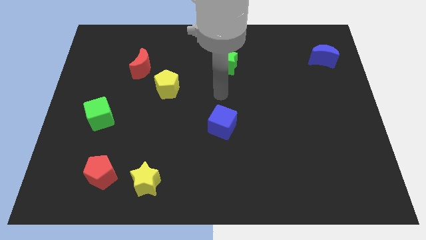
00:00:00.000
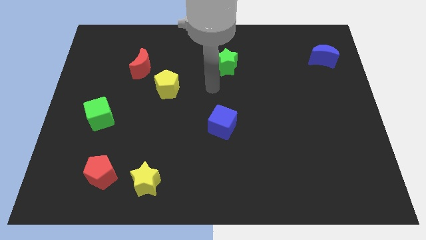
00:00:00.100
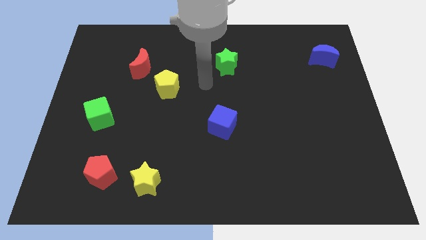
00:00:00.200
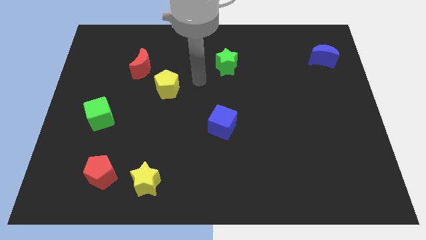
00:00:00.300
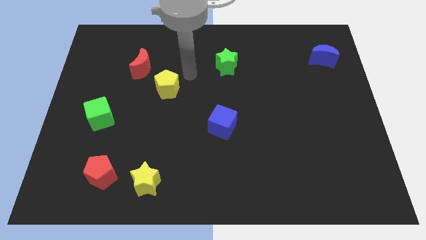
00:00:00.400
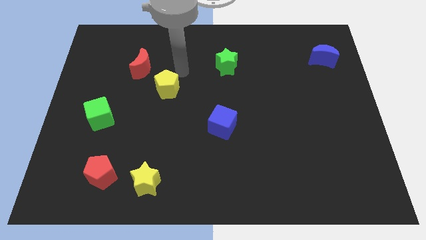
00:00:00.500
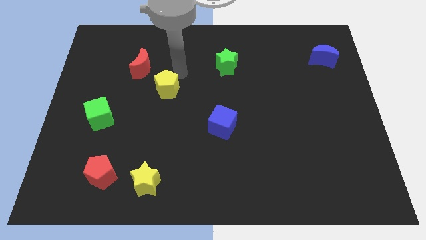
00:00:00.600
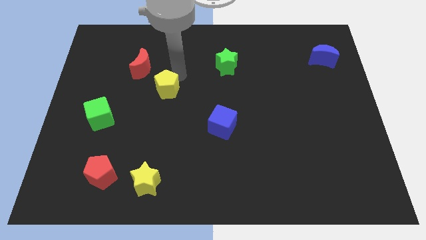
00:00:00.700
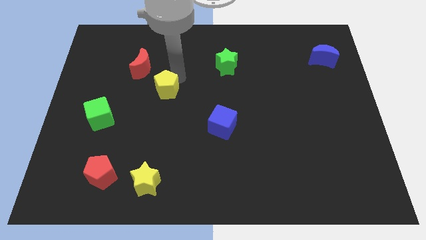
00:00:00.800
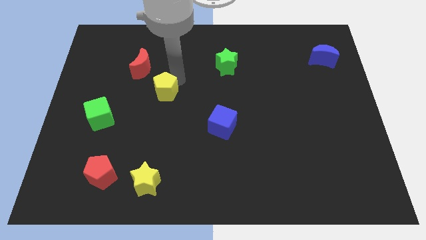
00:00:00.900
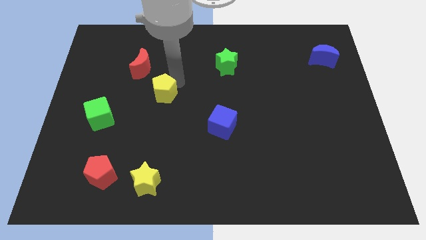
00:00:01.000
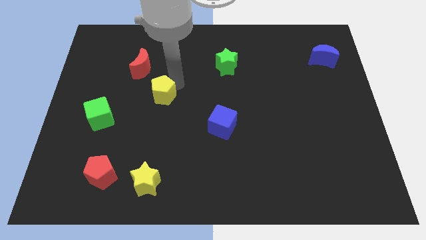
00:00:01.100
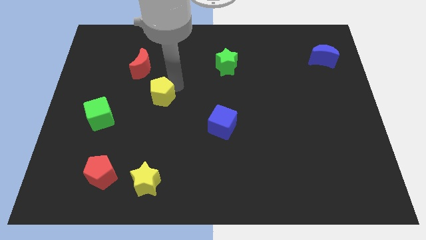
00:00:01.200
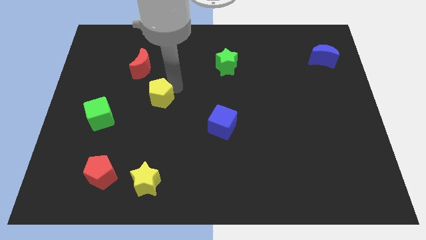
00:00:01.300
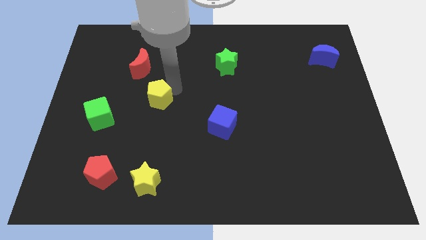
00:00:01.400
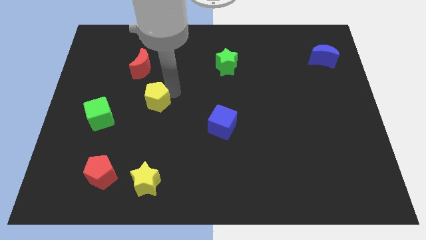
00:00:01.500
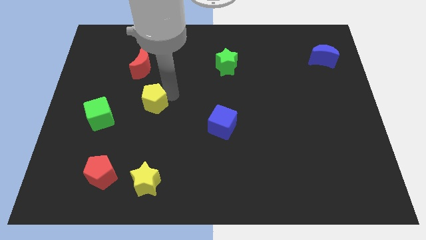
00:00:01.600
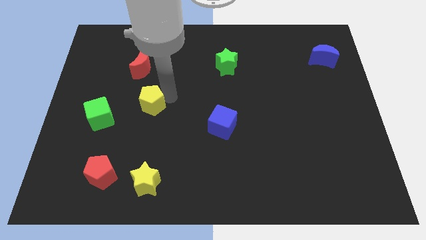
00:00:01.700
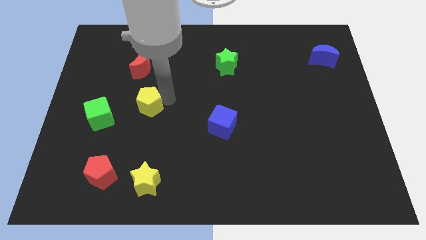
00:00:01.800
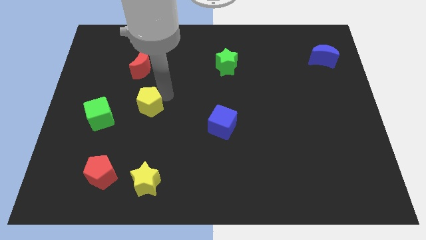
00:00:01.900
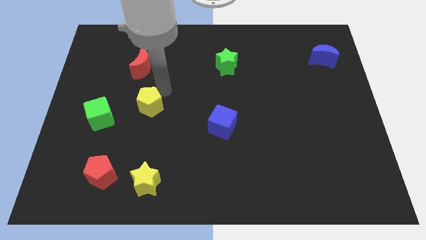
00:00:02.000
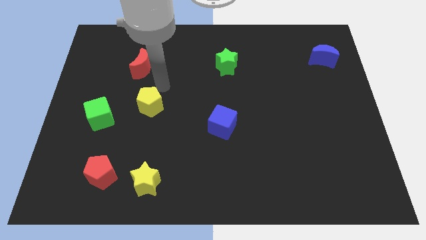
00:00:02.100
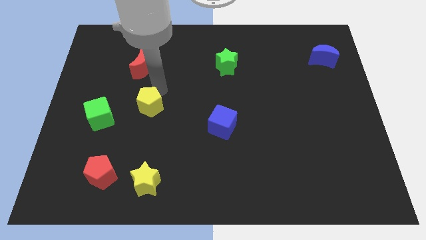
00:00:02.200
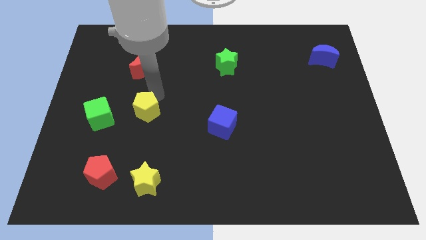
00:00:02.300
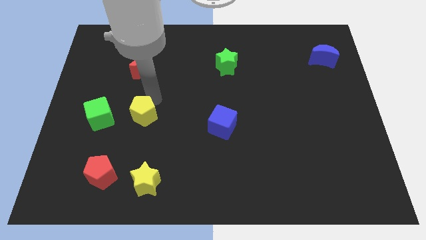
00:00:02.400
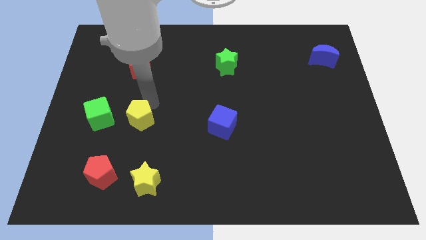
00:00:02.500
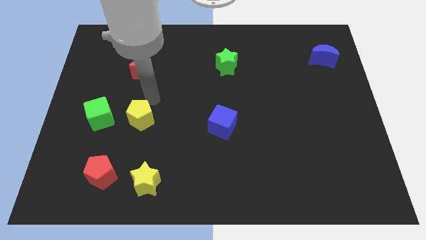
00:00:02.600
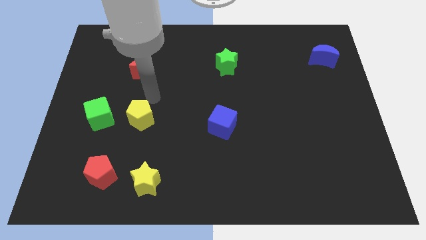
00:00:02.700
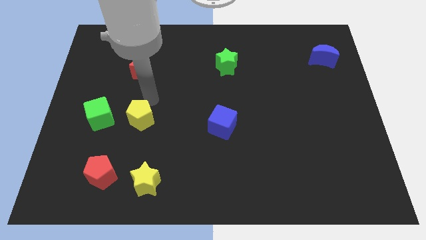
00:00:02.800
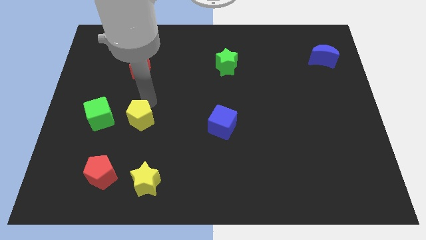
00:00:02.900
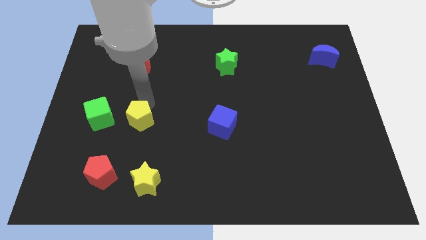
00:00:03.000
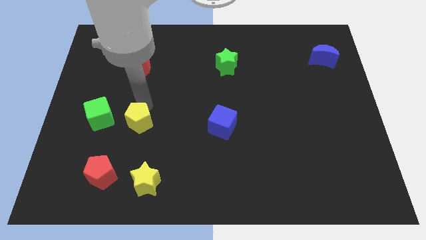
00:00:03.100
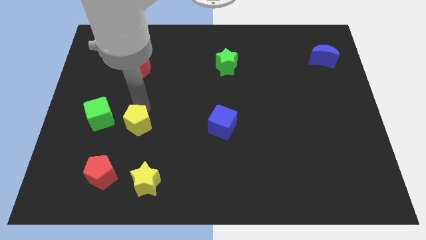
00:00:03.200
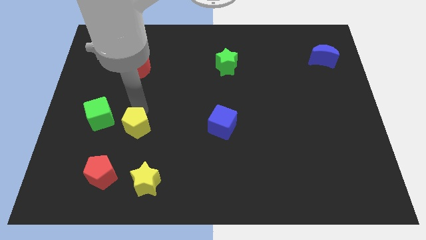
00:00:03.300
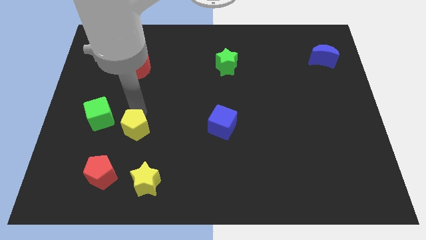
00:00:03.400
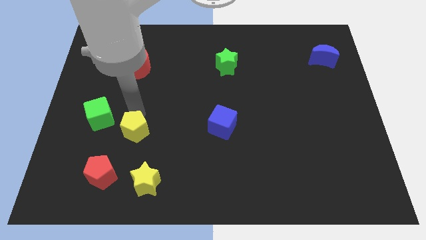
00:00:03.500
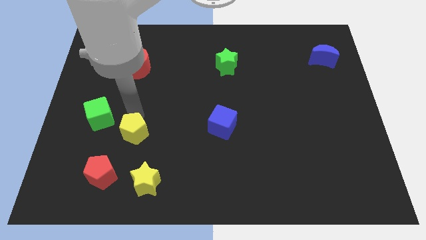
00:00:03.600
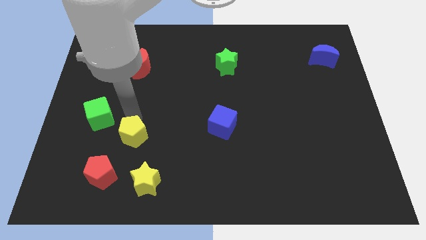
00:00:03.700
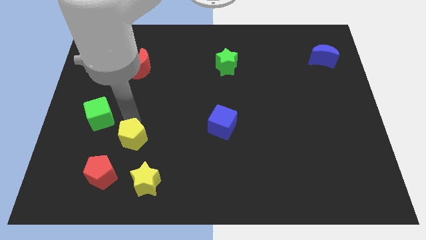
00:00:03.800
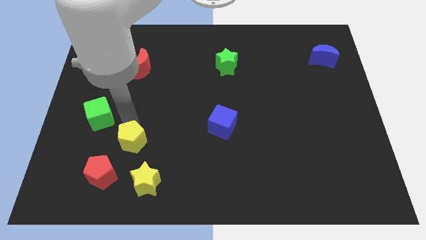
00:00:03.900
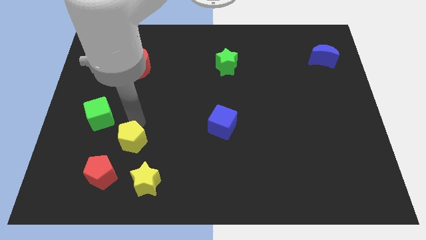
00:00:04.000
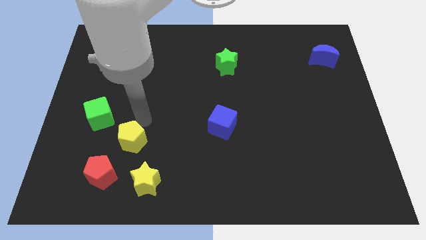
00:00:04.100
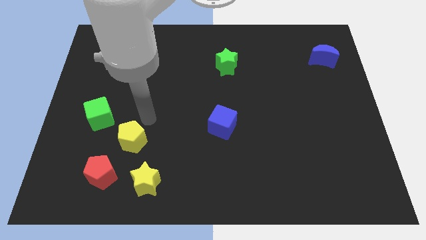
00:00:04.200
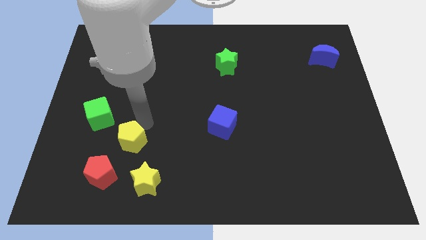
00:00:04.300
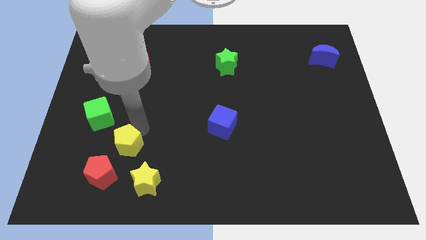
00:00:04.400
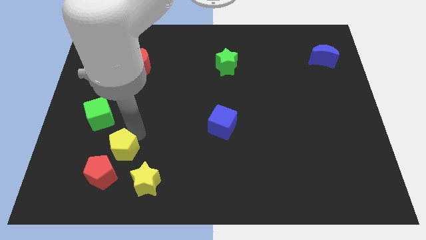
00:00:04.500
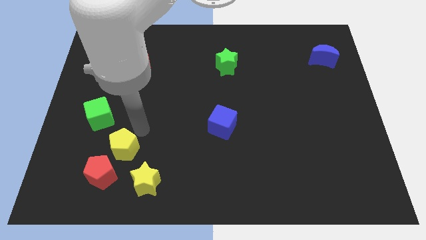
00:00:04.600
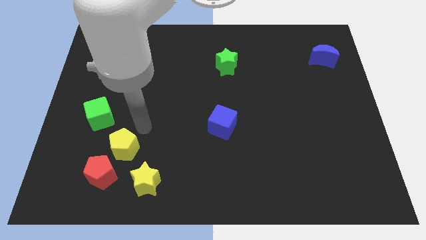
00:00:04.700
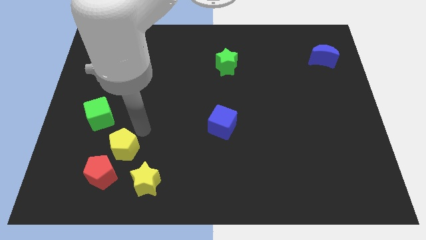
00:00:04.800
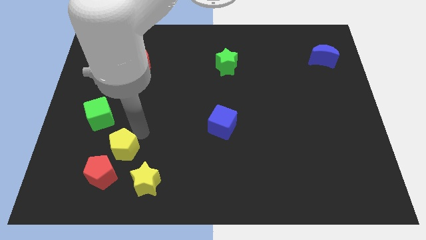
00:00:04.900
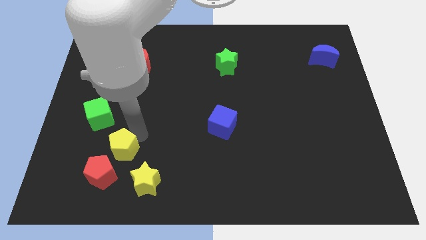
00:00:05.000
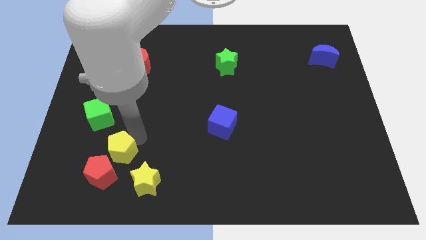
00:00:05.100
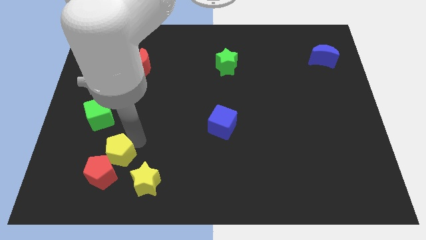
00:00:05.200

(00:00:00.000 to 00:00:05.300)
put the yellow pentagon towards the red pentagon

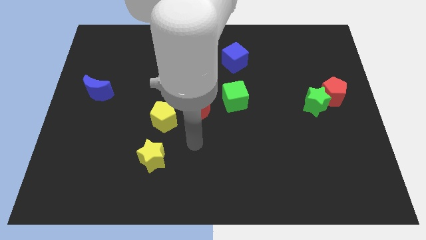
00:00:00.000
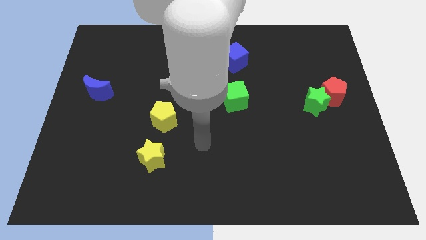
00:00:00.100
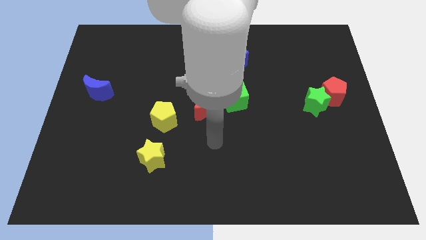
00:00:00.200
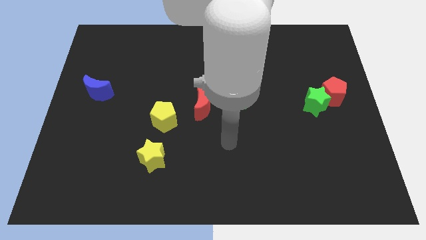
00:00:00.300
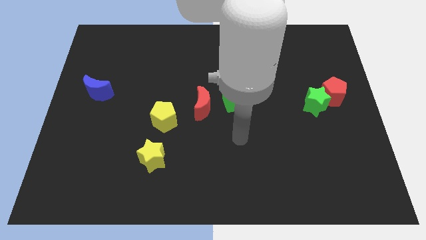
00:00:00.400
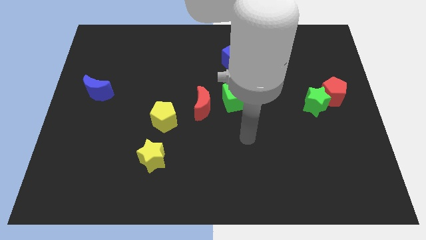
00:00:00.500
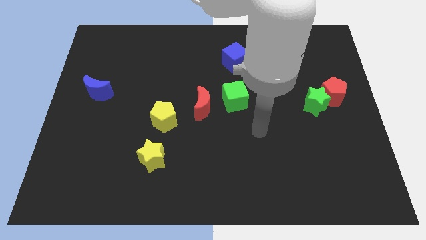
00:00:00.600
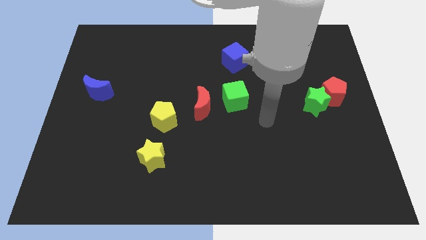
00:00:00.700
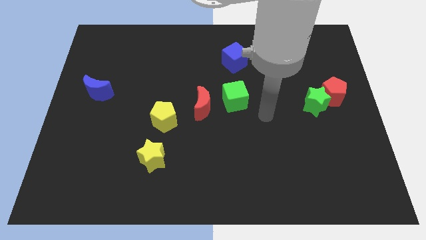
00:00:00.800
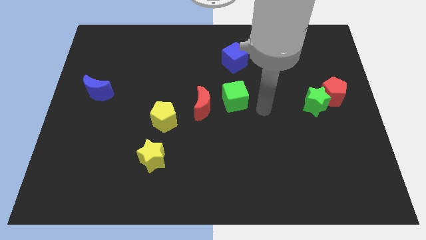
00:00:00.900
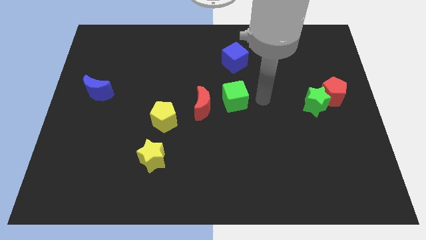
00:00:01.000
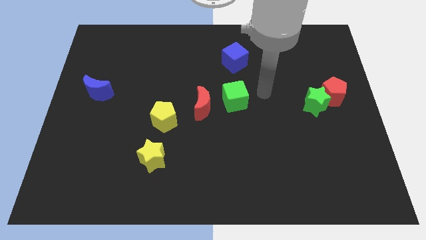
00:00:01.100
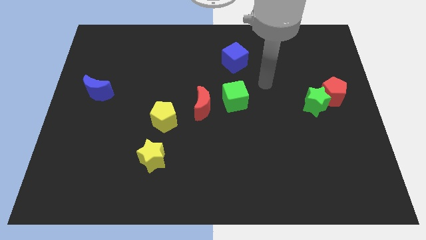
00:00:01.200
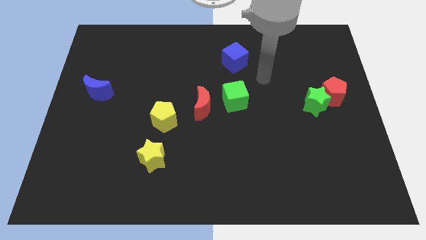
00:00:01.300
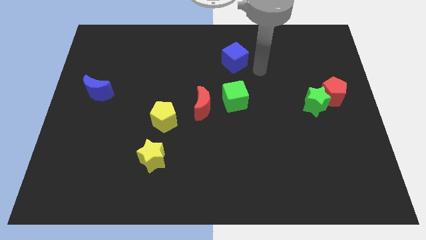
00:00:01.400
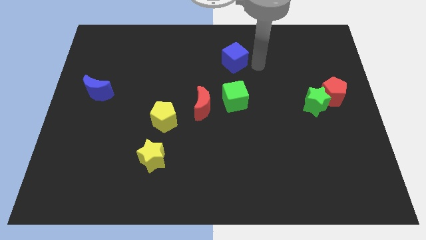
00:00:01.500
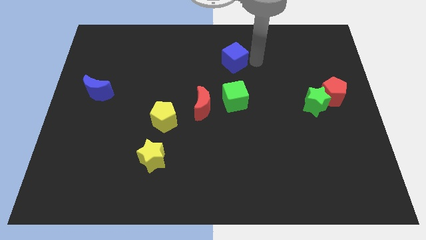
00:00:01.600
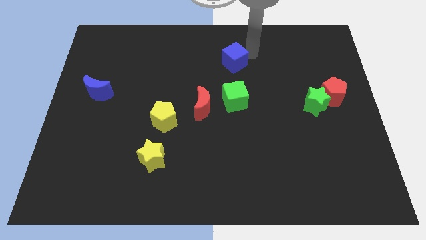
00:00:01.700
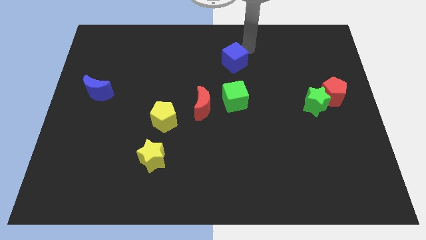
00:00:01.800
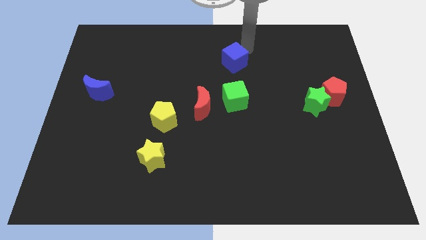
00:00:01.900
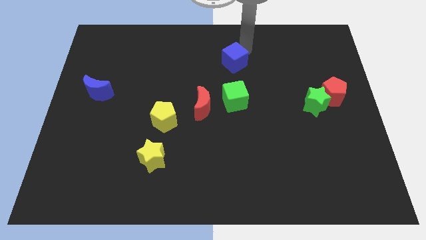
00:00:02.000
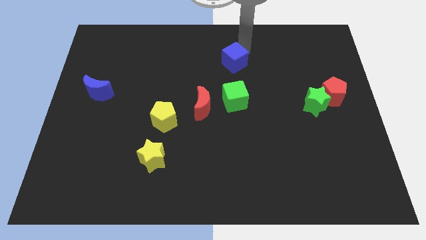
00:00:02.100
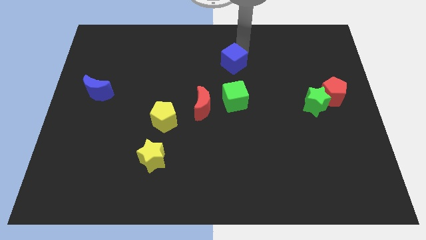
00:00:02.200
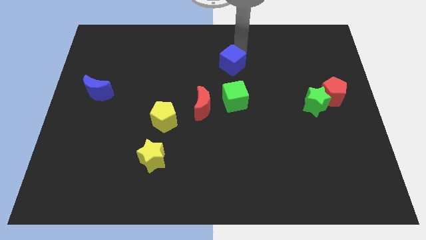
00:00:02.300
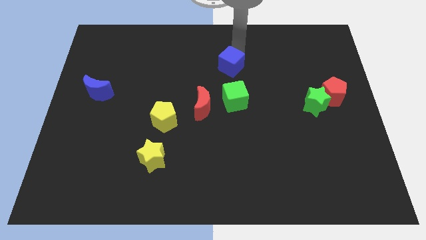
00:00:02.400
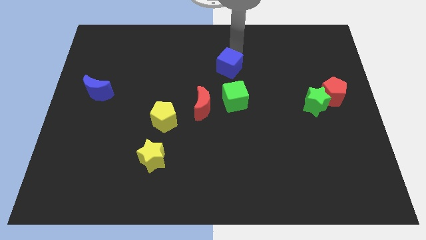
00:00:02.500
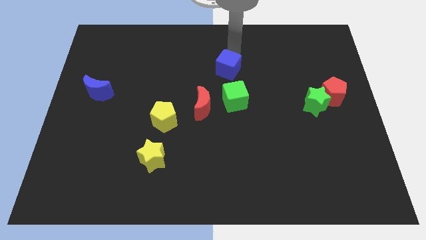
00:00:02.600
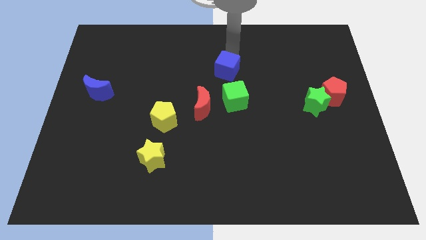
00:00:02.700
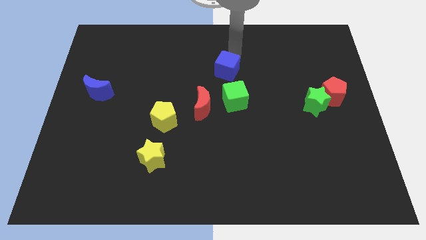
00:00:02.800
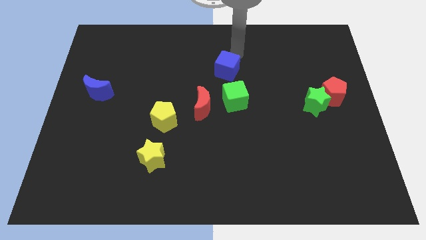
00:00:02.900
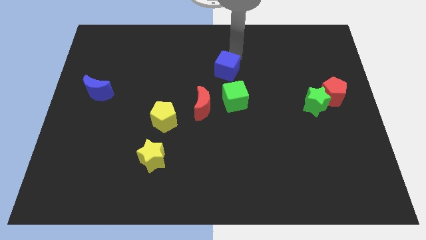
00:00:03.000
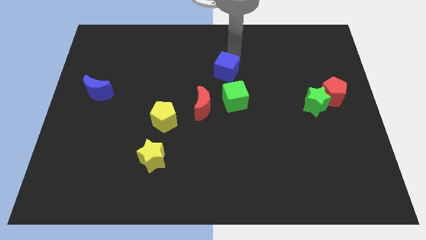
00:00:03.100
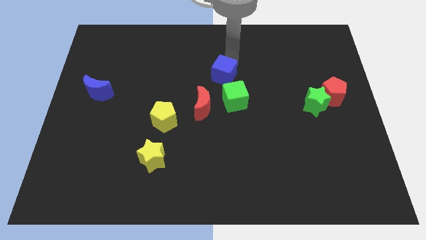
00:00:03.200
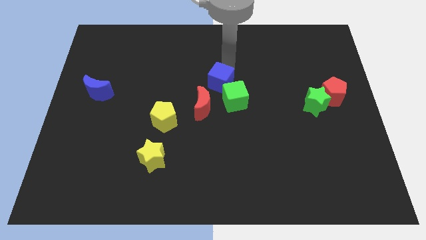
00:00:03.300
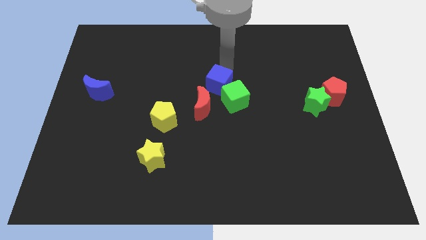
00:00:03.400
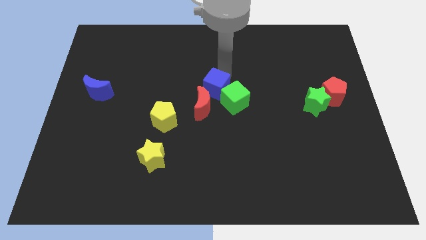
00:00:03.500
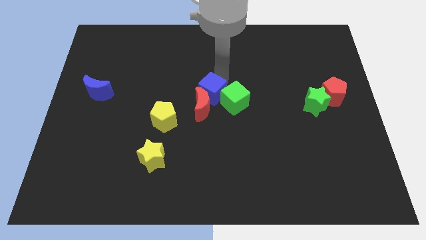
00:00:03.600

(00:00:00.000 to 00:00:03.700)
put the blue cube towards the red moon
